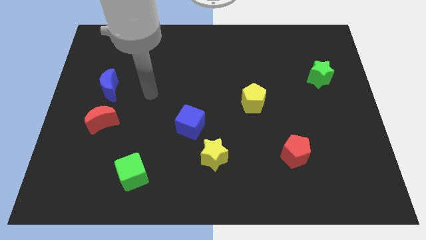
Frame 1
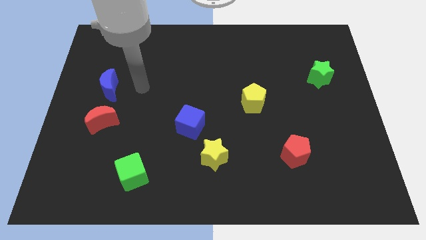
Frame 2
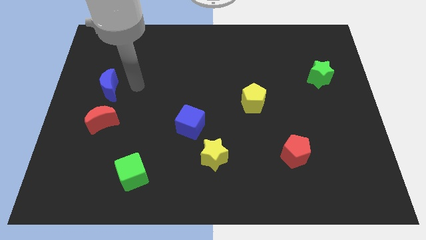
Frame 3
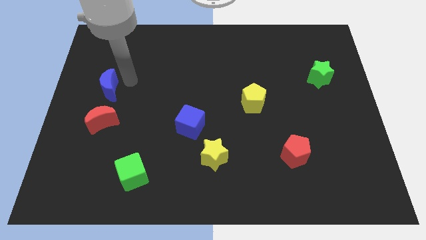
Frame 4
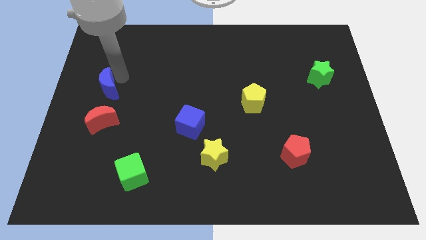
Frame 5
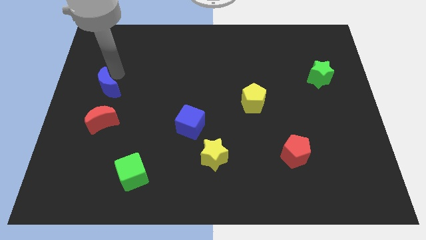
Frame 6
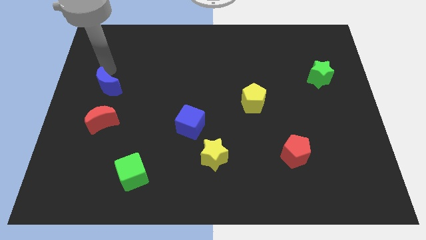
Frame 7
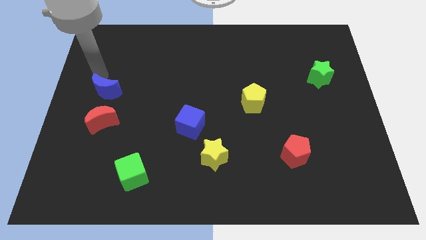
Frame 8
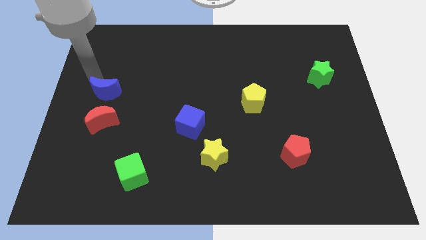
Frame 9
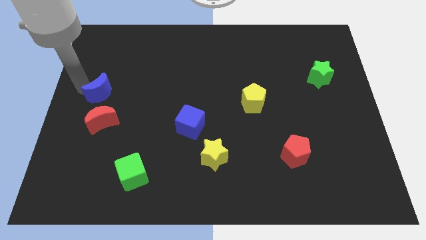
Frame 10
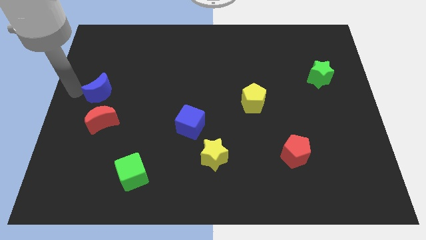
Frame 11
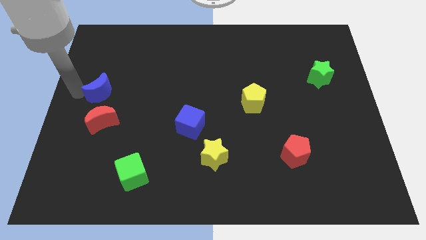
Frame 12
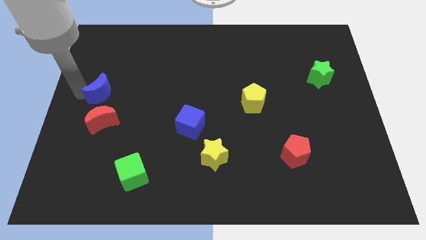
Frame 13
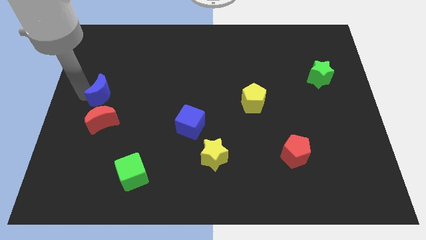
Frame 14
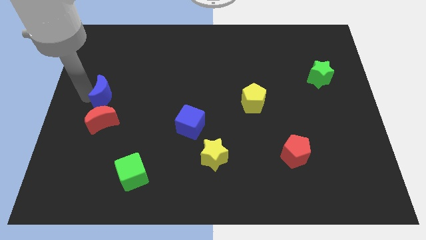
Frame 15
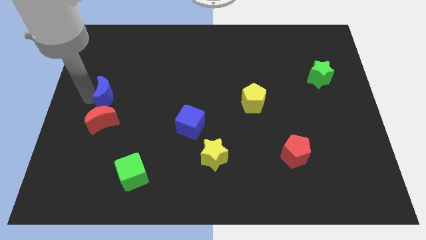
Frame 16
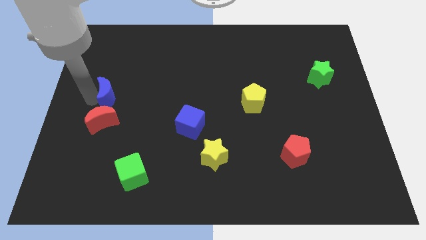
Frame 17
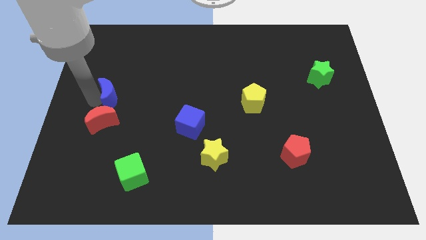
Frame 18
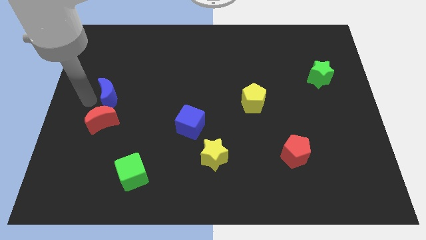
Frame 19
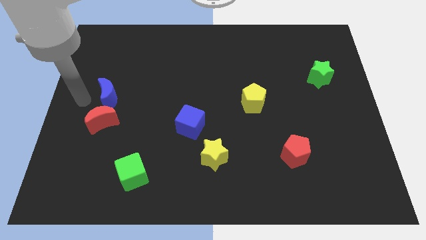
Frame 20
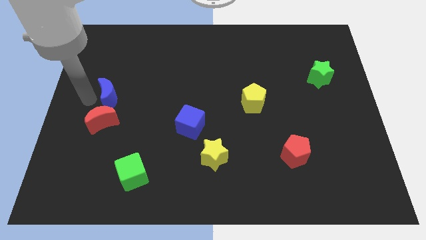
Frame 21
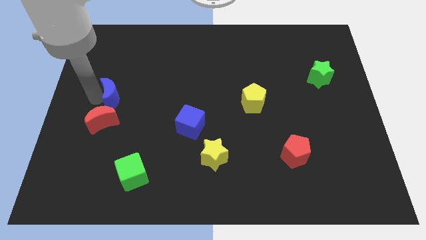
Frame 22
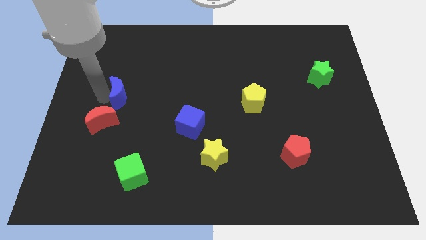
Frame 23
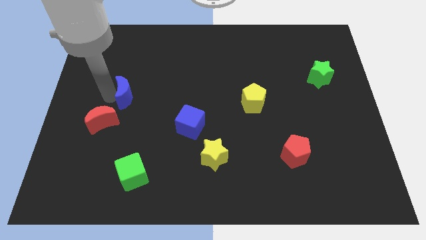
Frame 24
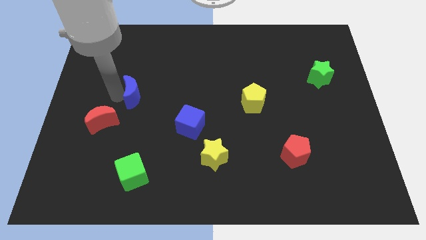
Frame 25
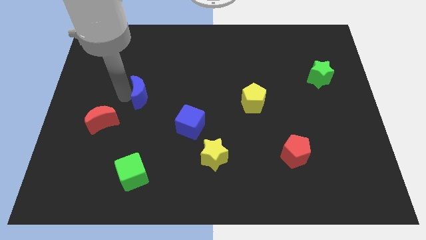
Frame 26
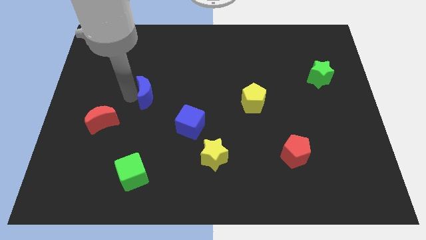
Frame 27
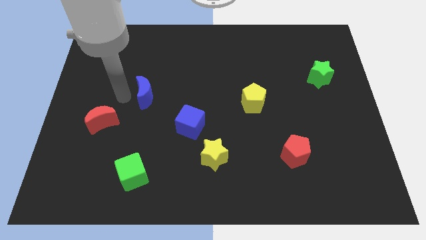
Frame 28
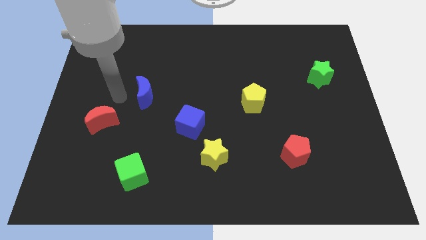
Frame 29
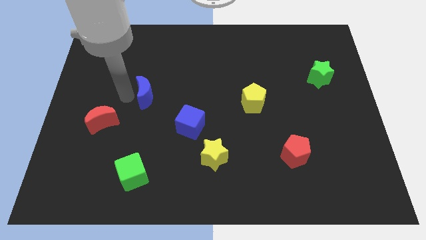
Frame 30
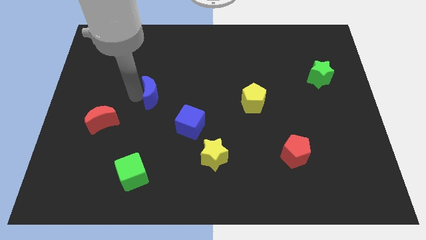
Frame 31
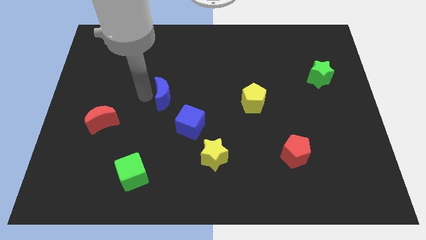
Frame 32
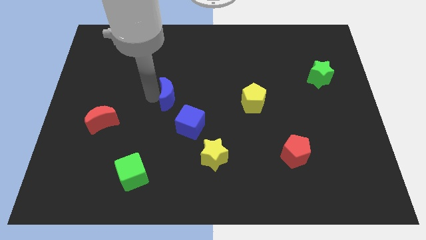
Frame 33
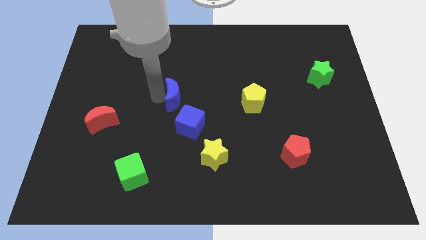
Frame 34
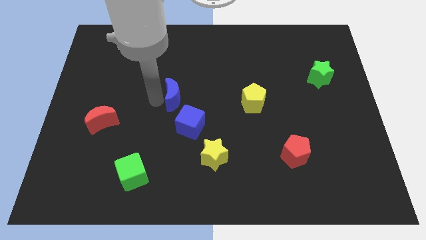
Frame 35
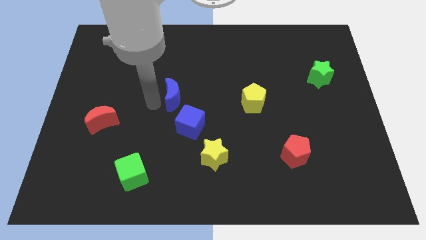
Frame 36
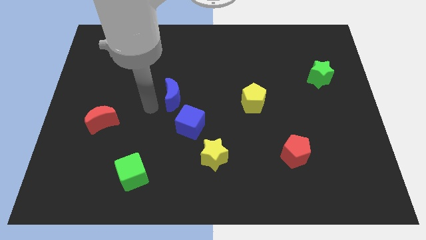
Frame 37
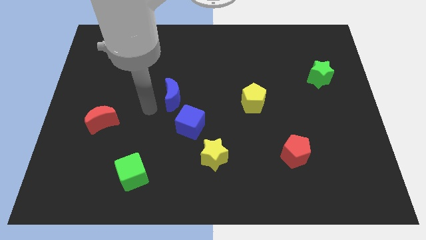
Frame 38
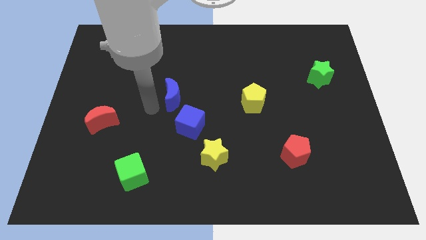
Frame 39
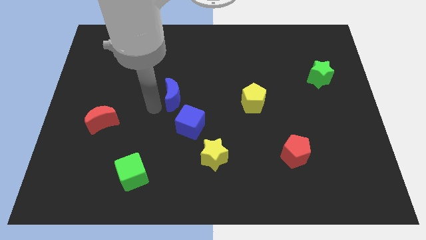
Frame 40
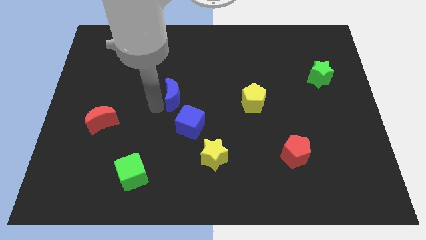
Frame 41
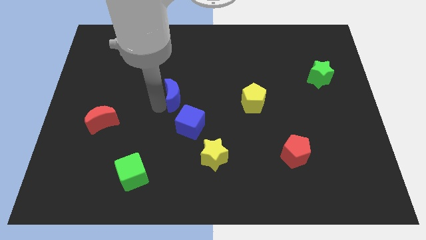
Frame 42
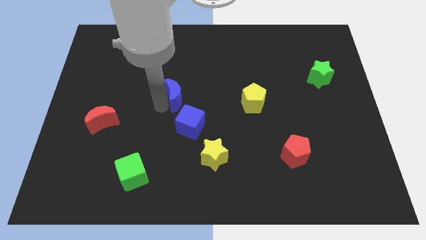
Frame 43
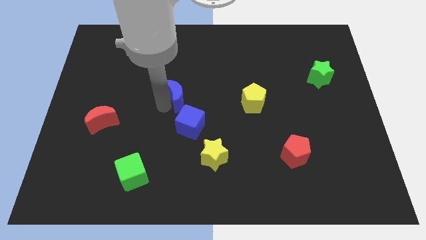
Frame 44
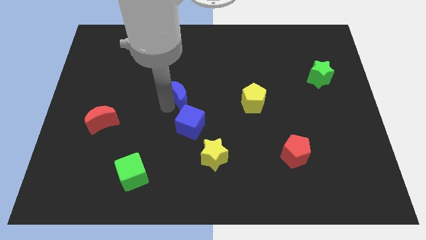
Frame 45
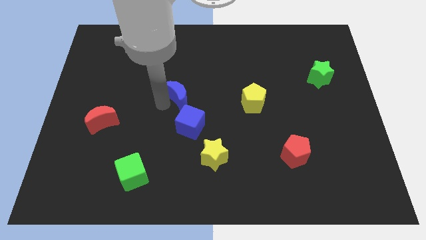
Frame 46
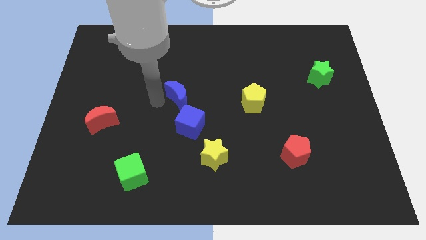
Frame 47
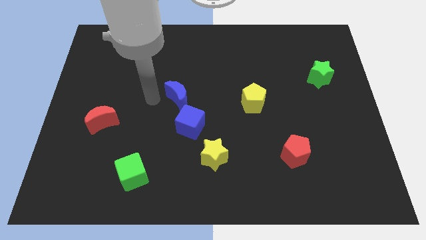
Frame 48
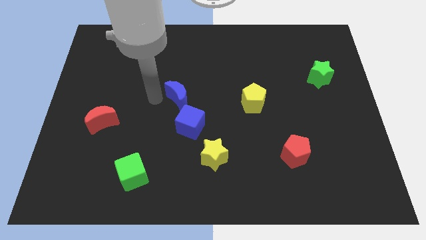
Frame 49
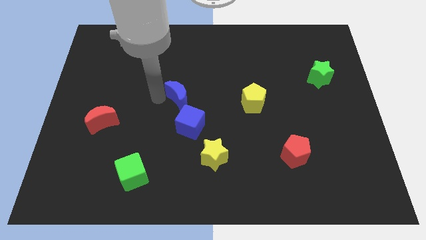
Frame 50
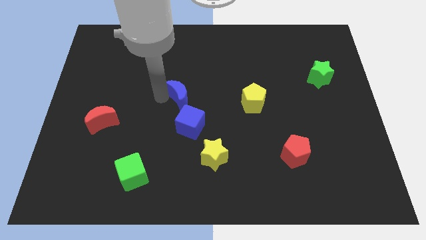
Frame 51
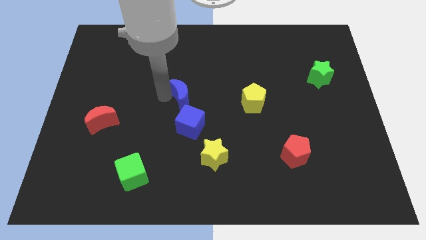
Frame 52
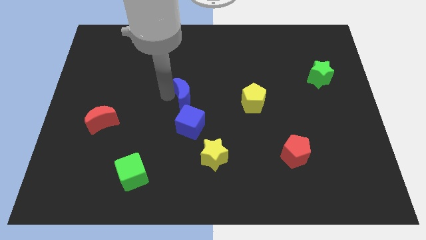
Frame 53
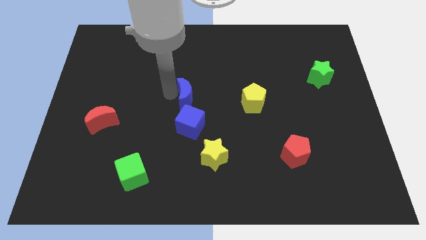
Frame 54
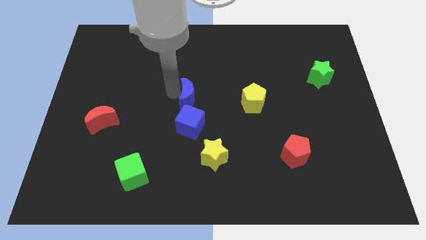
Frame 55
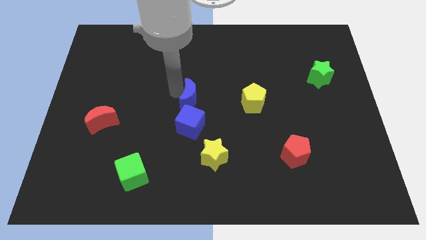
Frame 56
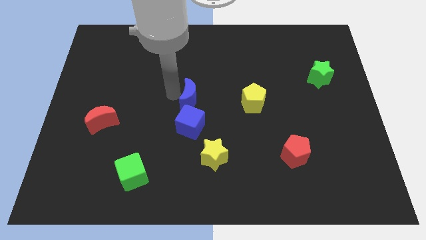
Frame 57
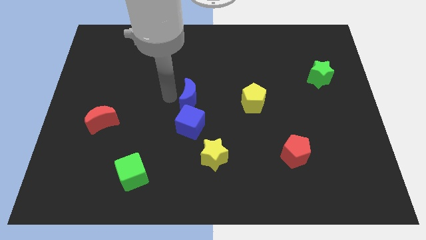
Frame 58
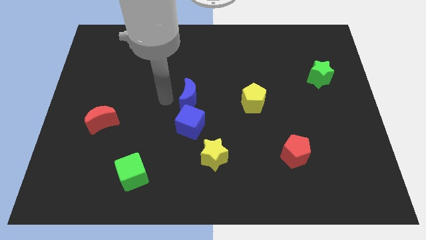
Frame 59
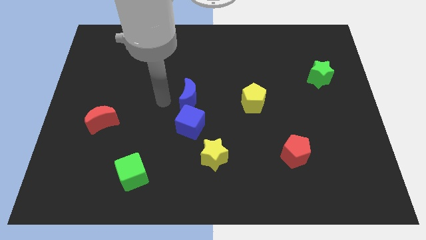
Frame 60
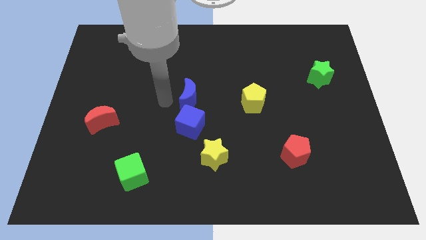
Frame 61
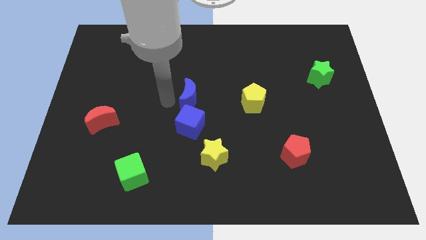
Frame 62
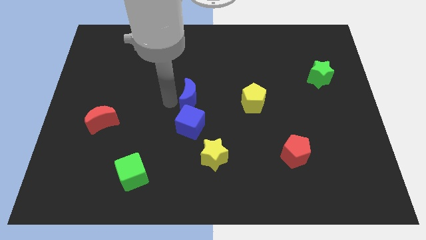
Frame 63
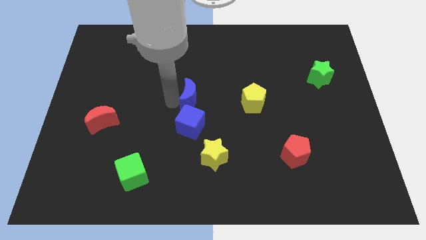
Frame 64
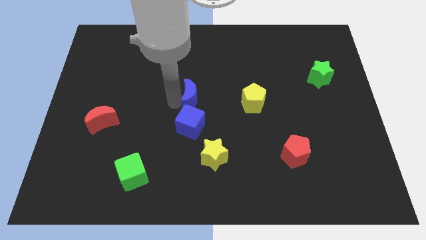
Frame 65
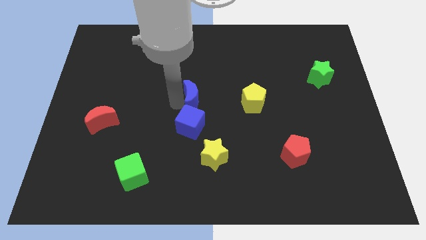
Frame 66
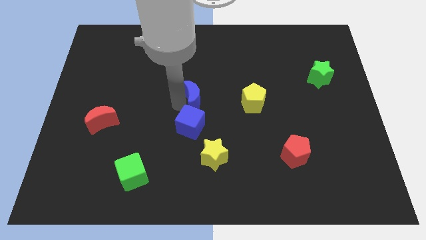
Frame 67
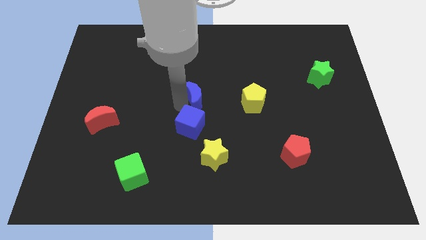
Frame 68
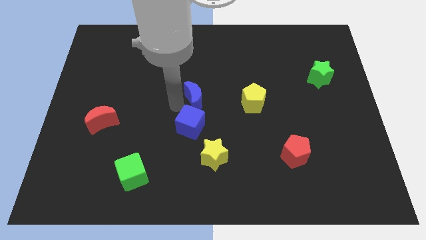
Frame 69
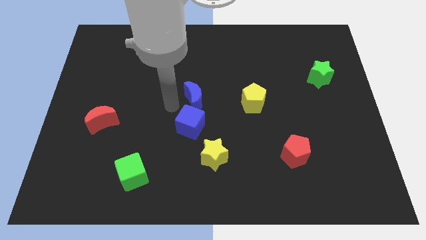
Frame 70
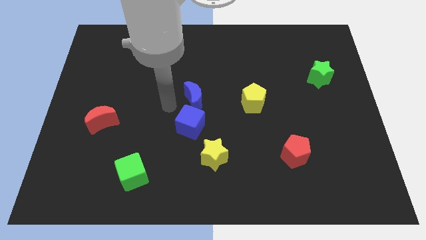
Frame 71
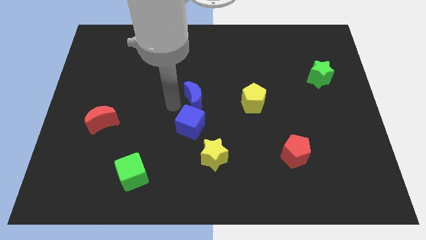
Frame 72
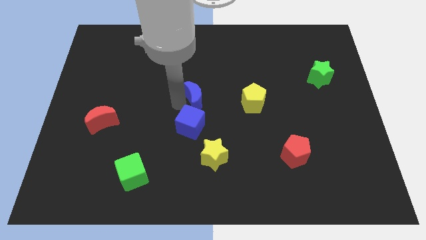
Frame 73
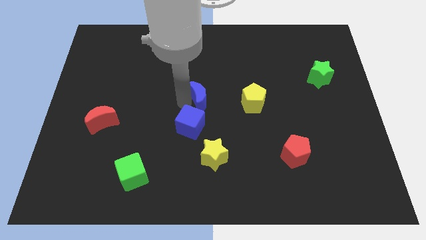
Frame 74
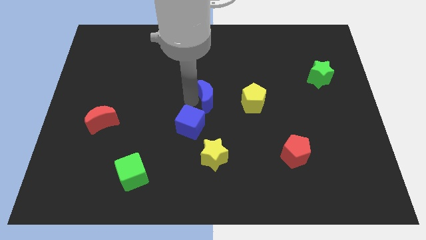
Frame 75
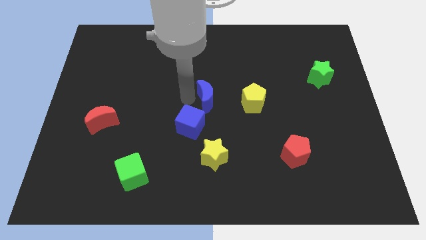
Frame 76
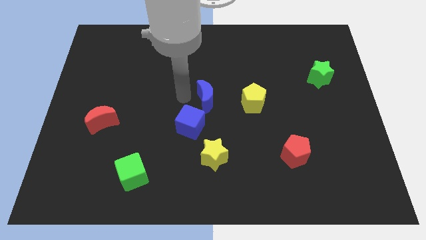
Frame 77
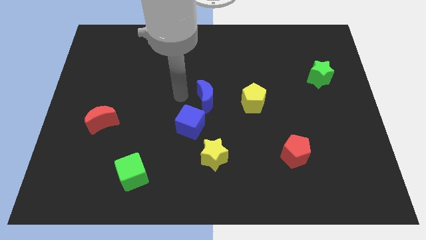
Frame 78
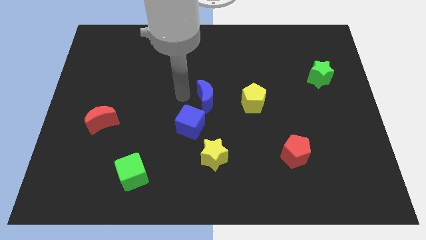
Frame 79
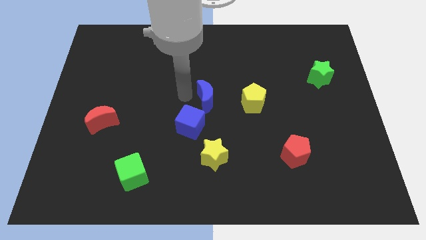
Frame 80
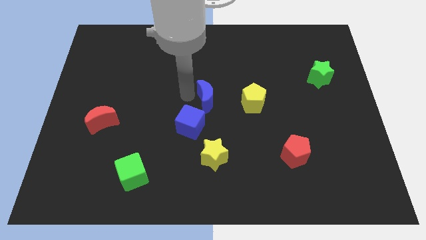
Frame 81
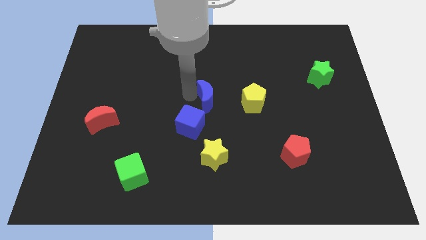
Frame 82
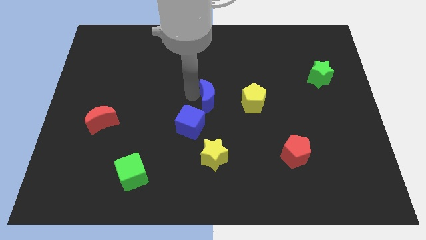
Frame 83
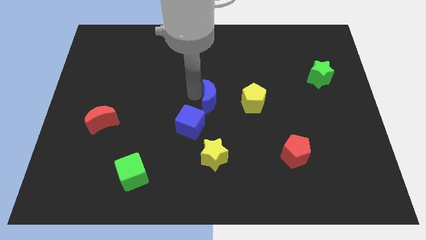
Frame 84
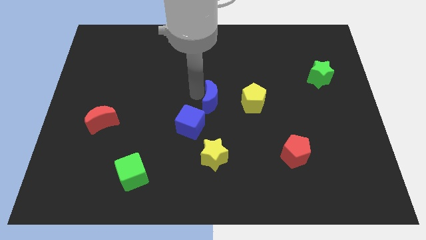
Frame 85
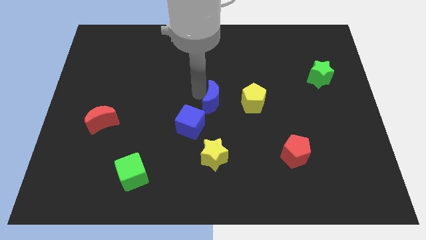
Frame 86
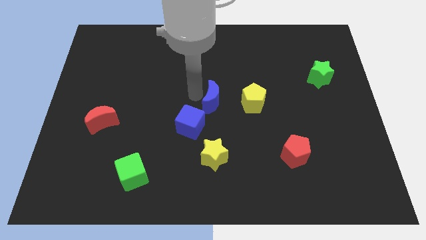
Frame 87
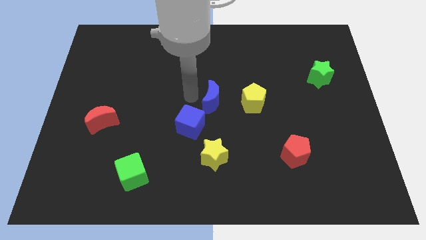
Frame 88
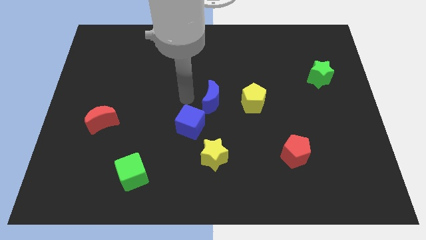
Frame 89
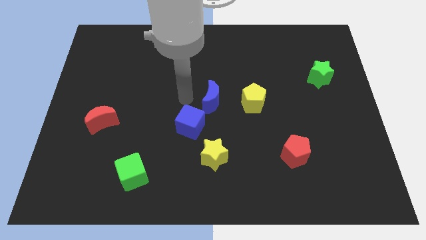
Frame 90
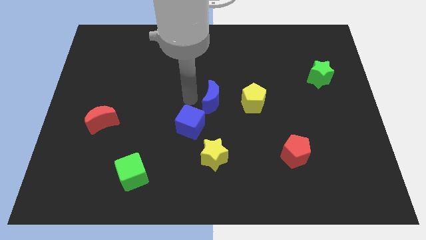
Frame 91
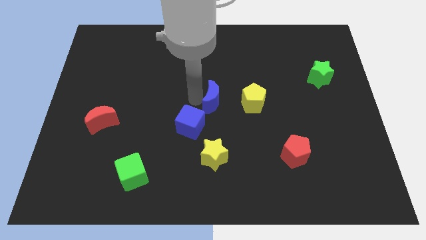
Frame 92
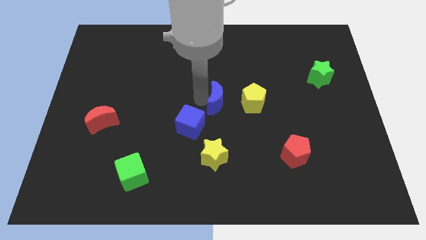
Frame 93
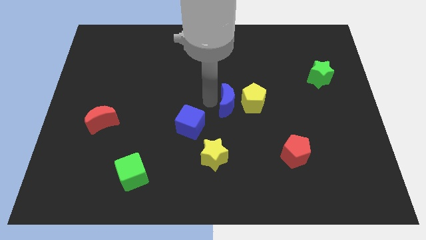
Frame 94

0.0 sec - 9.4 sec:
slide the blue moon close to the yellow pentagon
